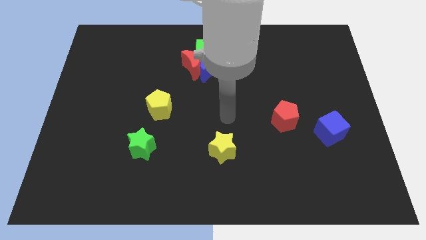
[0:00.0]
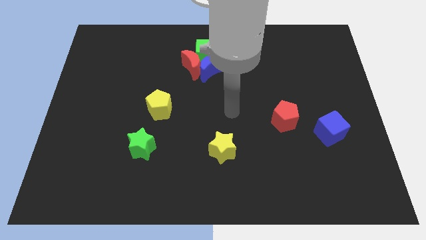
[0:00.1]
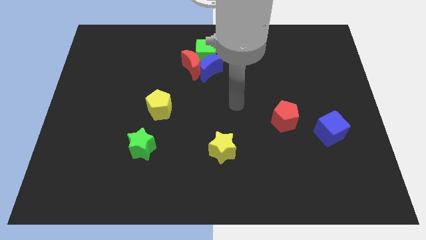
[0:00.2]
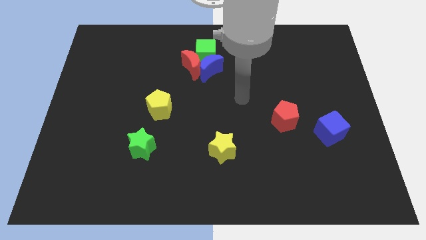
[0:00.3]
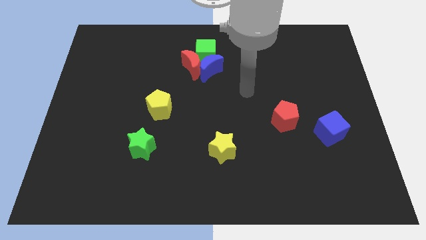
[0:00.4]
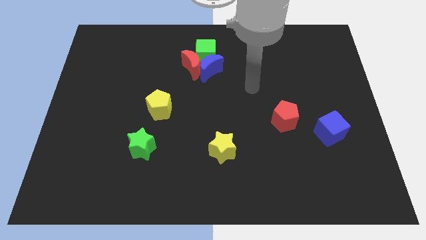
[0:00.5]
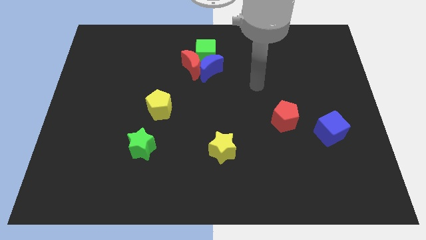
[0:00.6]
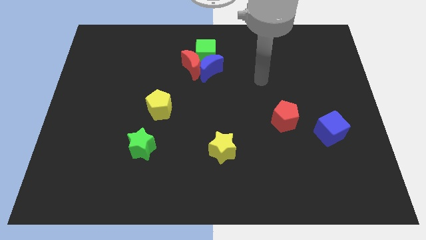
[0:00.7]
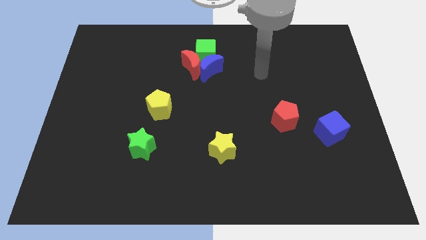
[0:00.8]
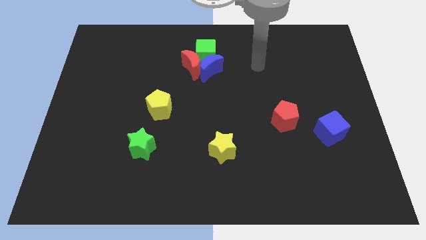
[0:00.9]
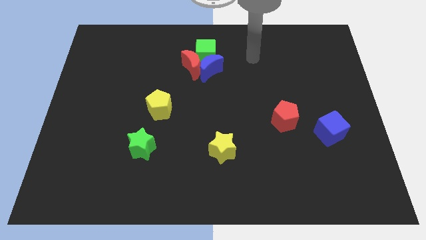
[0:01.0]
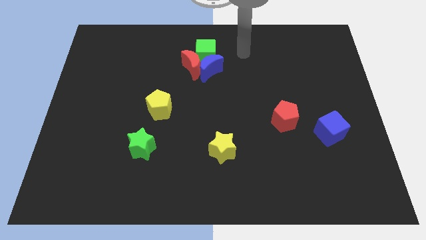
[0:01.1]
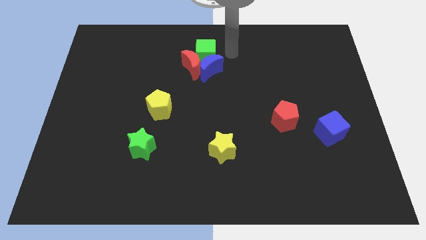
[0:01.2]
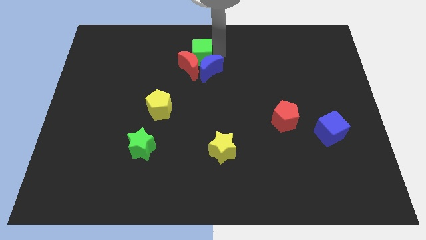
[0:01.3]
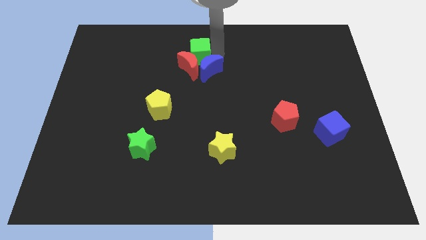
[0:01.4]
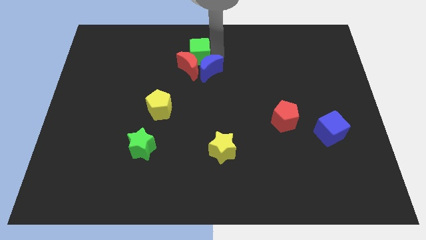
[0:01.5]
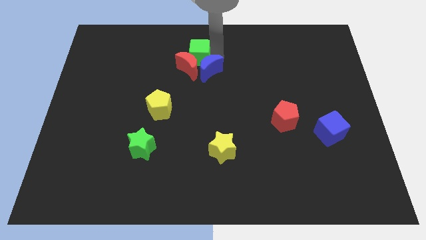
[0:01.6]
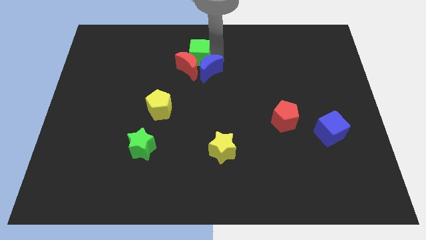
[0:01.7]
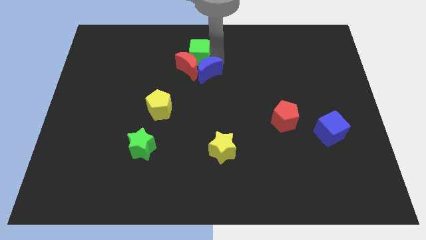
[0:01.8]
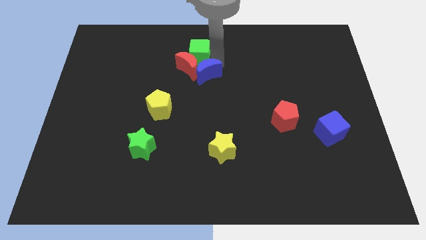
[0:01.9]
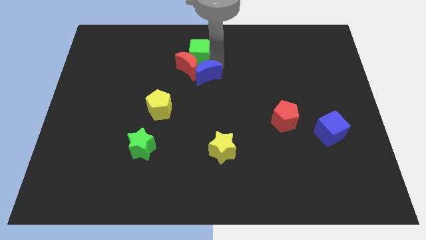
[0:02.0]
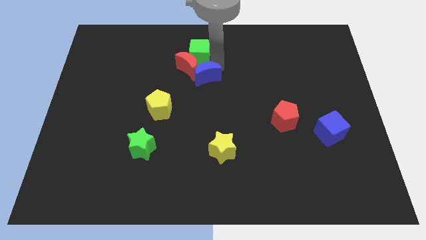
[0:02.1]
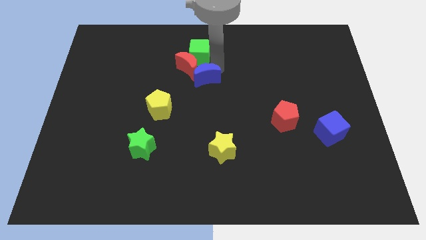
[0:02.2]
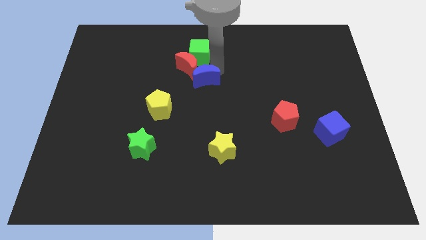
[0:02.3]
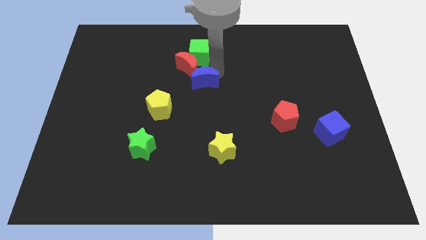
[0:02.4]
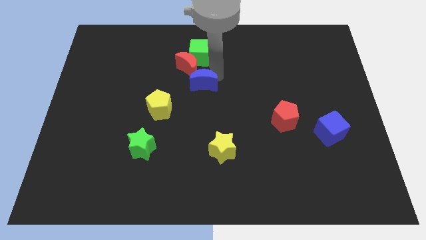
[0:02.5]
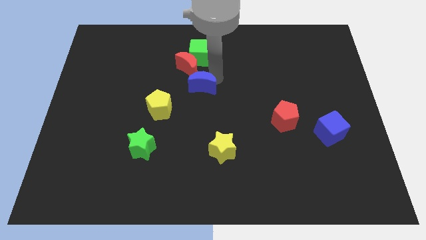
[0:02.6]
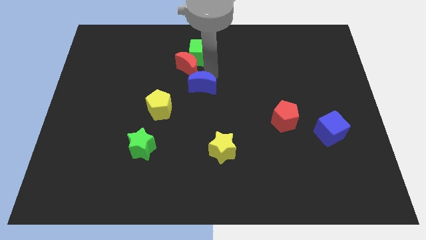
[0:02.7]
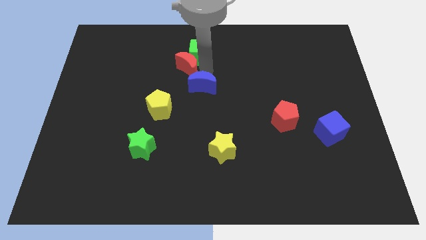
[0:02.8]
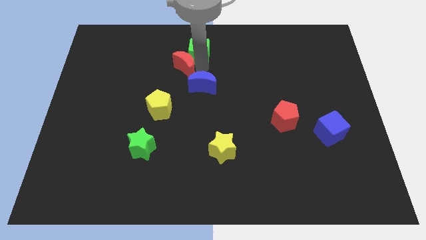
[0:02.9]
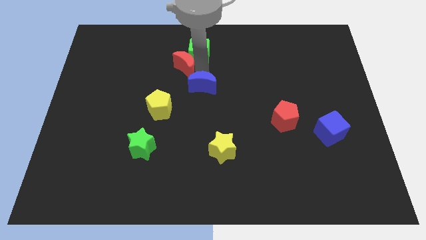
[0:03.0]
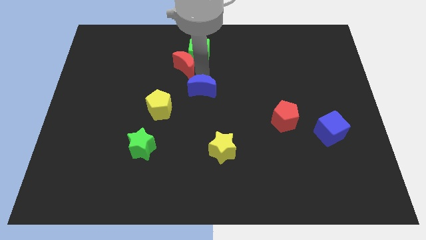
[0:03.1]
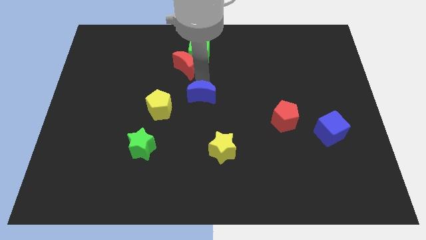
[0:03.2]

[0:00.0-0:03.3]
slightly move the blue moon down

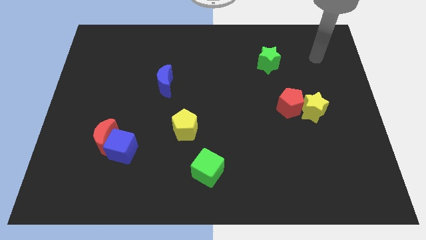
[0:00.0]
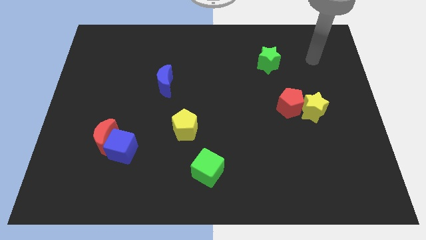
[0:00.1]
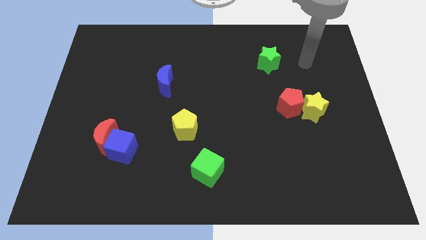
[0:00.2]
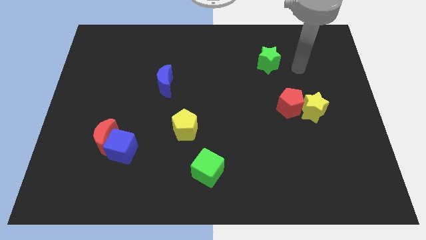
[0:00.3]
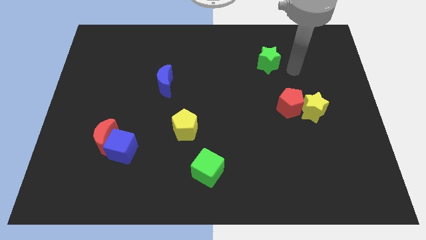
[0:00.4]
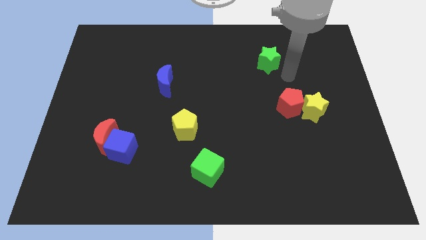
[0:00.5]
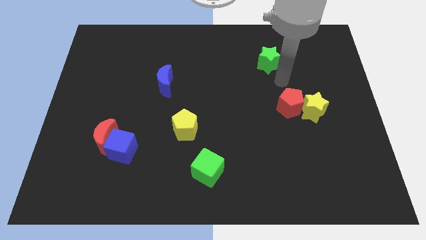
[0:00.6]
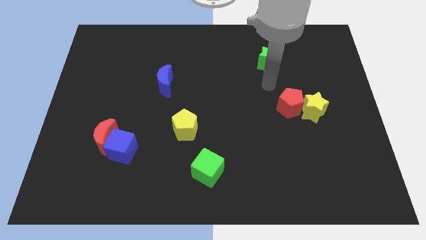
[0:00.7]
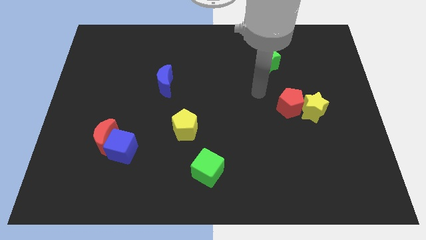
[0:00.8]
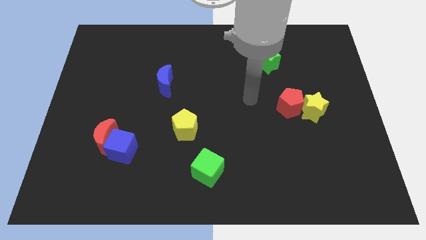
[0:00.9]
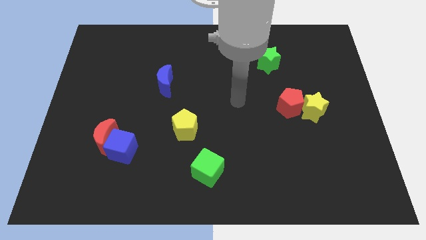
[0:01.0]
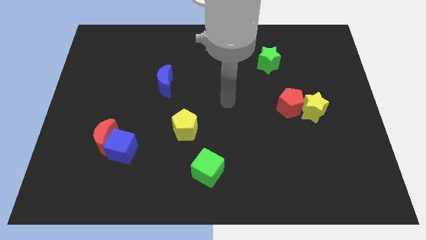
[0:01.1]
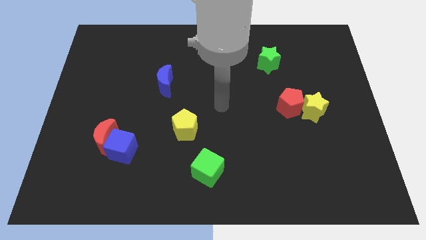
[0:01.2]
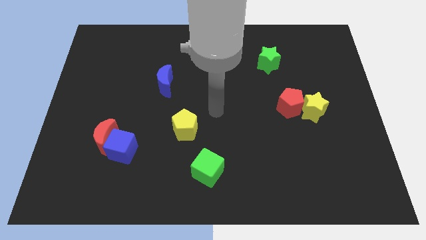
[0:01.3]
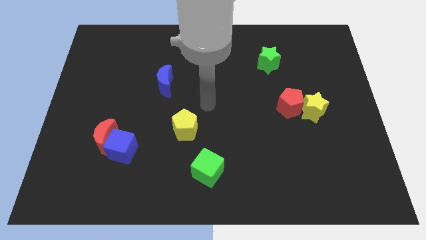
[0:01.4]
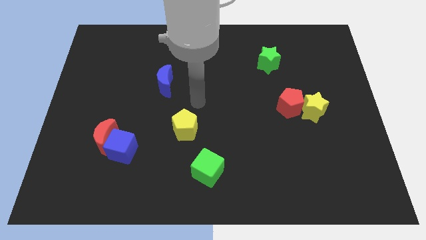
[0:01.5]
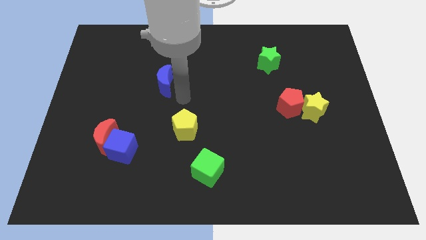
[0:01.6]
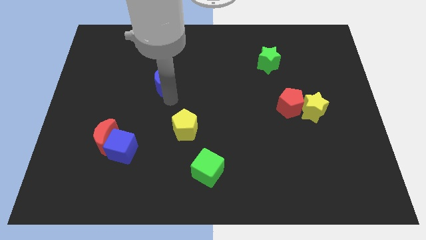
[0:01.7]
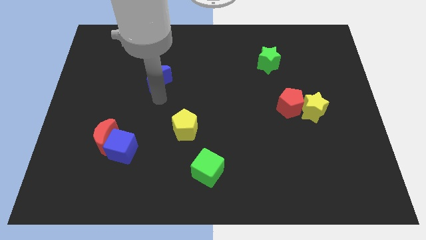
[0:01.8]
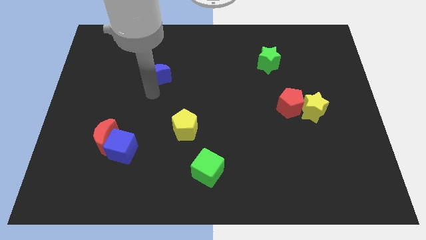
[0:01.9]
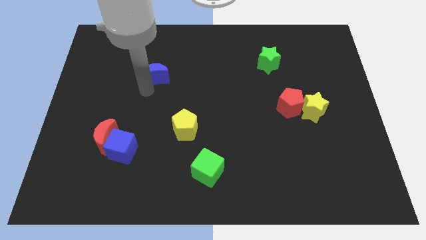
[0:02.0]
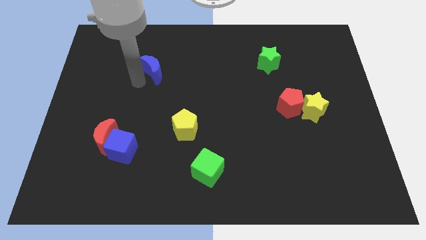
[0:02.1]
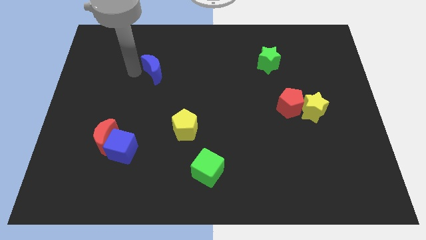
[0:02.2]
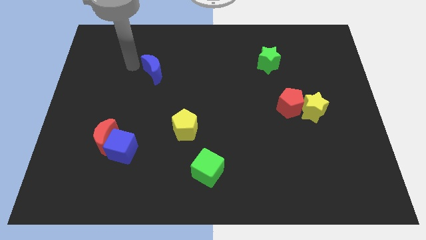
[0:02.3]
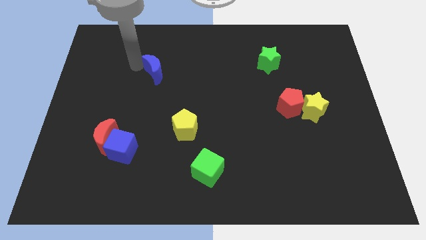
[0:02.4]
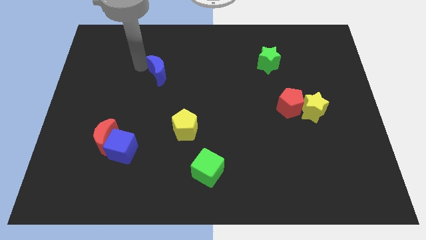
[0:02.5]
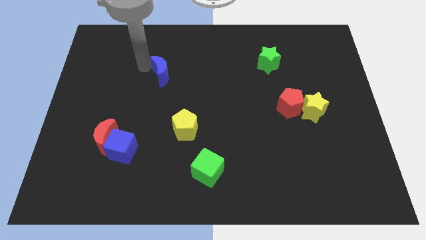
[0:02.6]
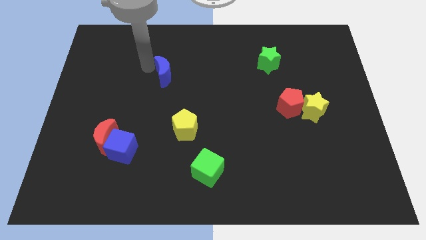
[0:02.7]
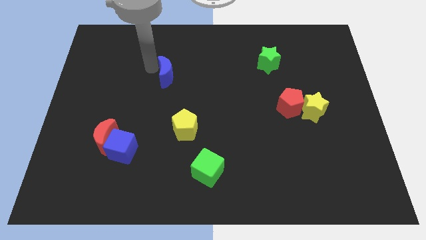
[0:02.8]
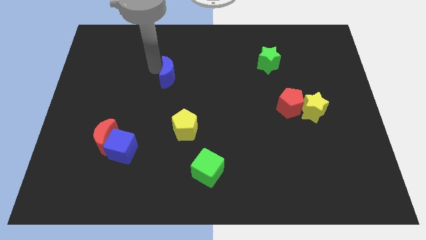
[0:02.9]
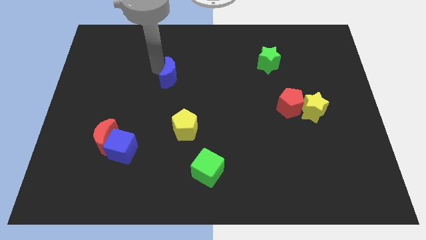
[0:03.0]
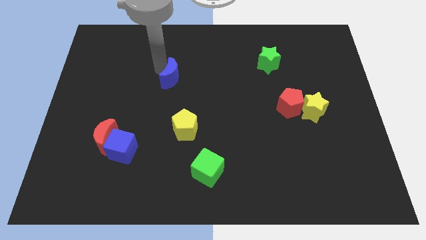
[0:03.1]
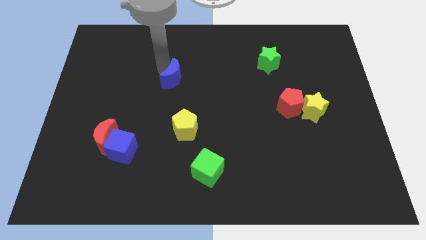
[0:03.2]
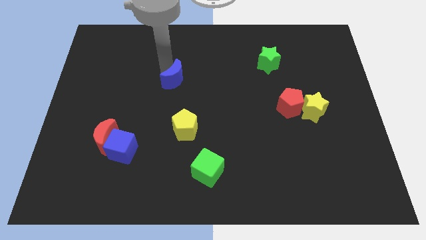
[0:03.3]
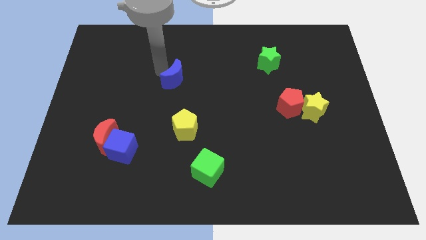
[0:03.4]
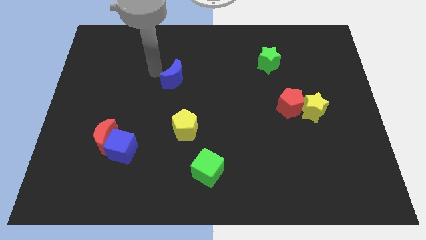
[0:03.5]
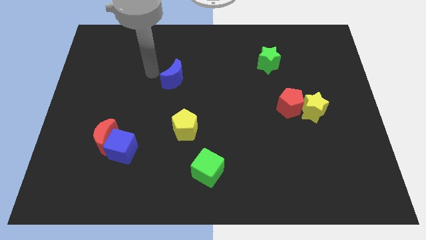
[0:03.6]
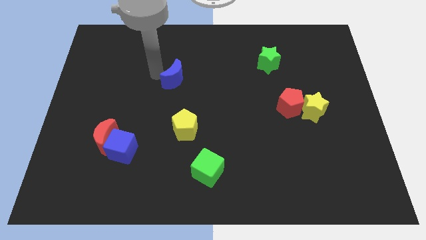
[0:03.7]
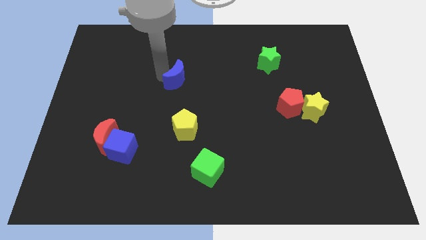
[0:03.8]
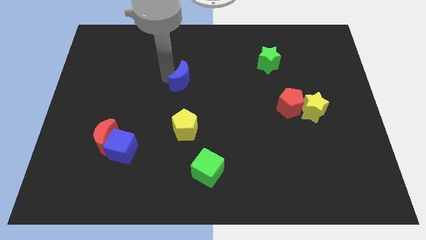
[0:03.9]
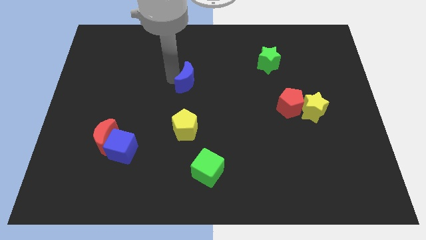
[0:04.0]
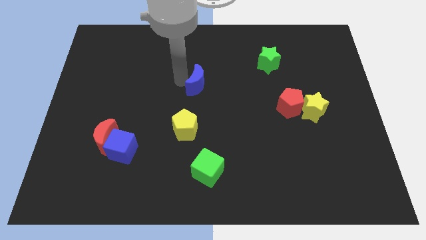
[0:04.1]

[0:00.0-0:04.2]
push the blue moon somewhat right

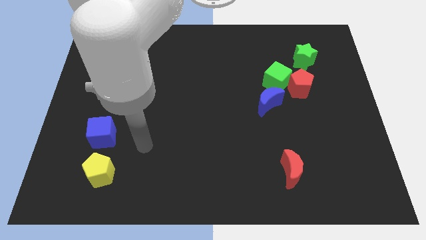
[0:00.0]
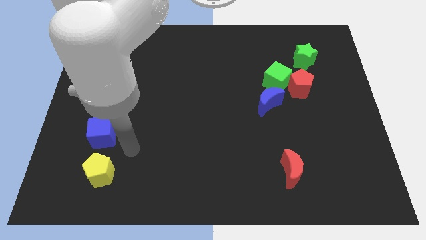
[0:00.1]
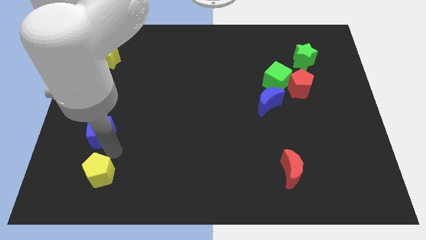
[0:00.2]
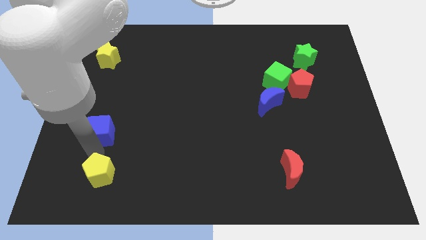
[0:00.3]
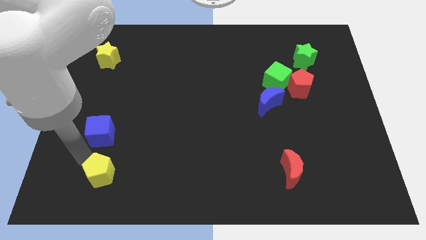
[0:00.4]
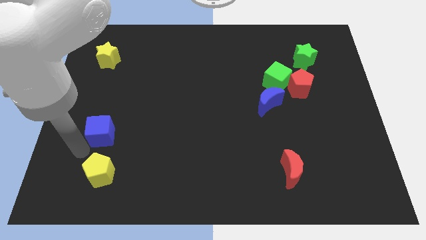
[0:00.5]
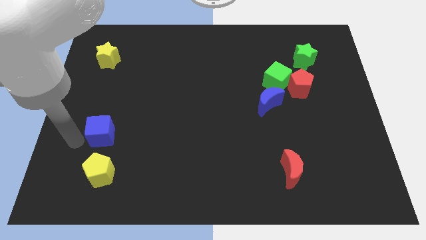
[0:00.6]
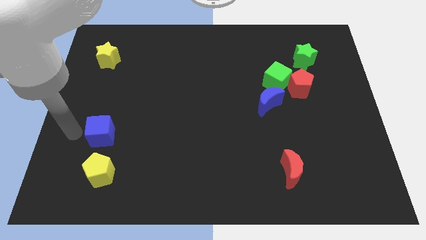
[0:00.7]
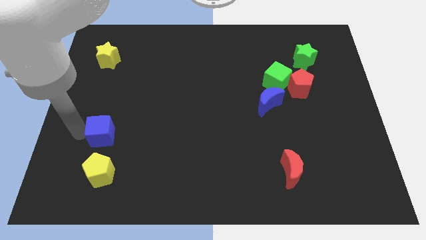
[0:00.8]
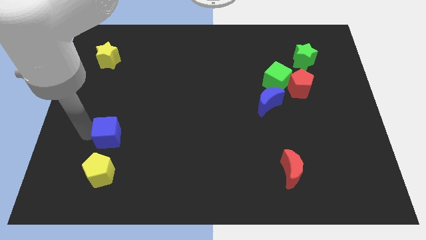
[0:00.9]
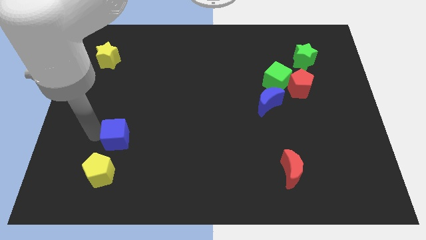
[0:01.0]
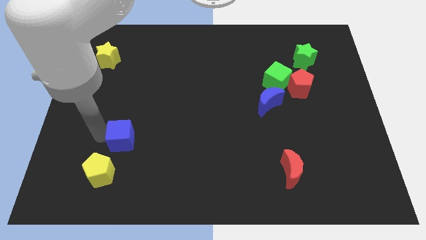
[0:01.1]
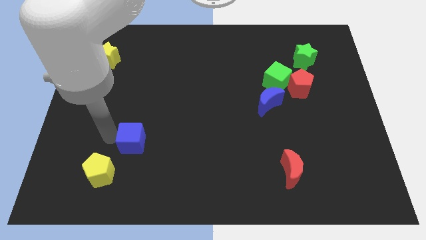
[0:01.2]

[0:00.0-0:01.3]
move the blue cube to the right a little
